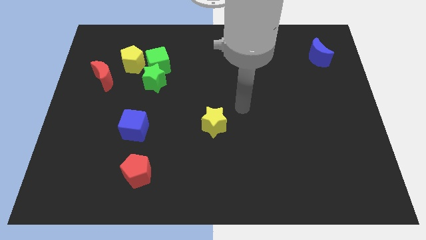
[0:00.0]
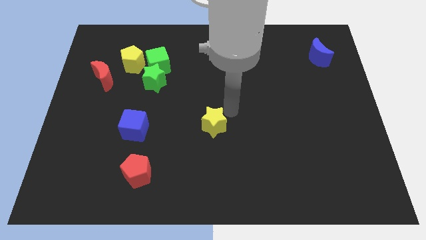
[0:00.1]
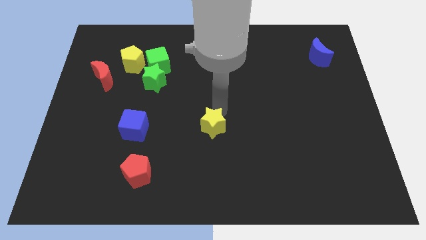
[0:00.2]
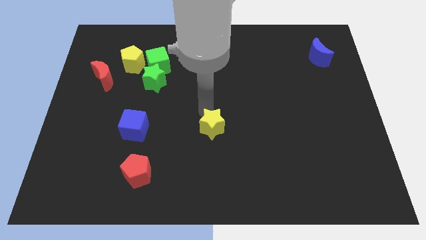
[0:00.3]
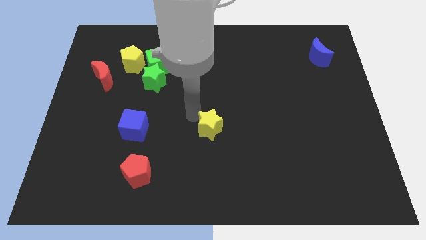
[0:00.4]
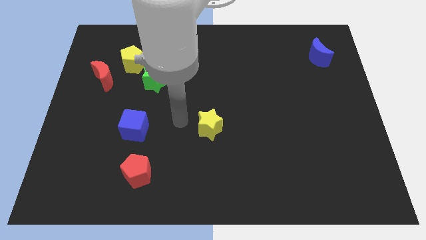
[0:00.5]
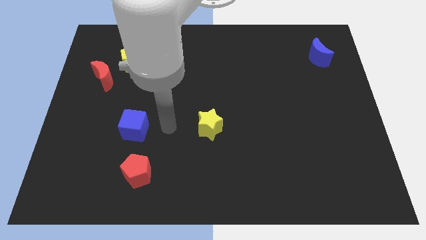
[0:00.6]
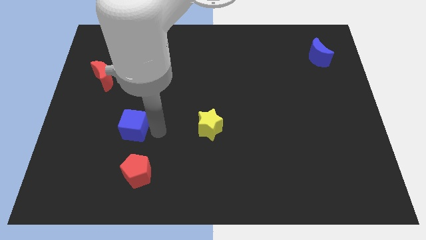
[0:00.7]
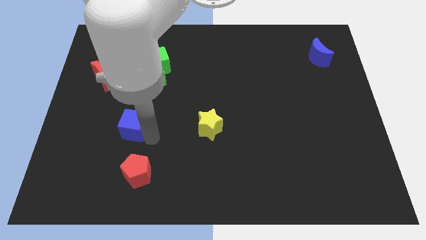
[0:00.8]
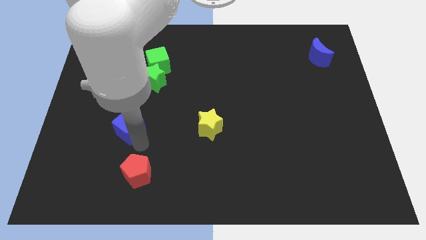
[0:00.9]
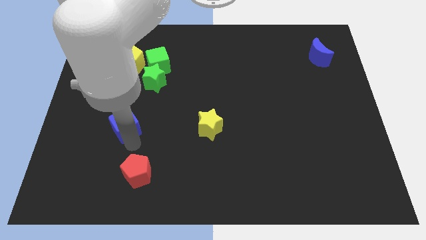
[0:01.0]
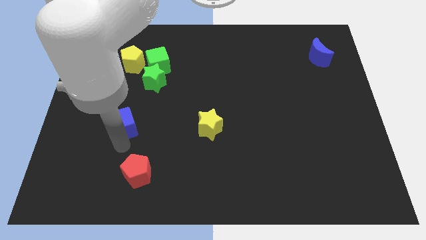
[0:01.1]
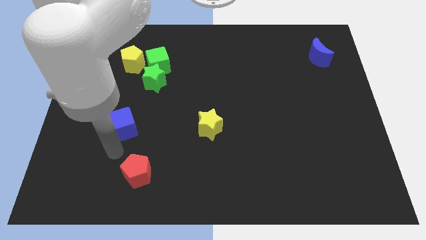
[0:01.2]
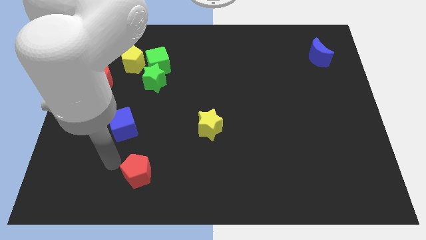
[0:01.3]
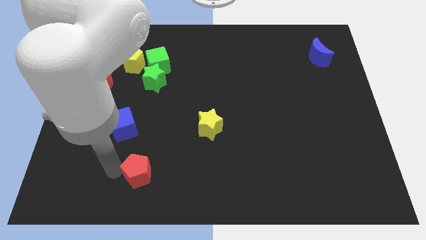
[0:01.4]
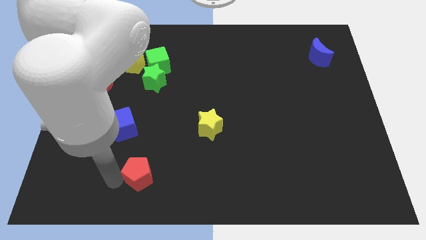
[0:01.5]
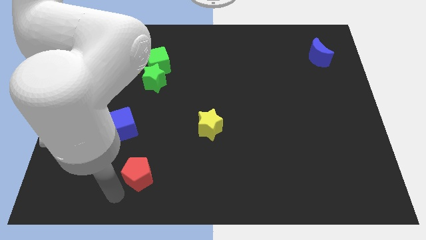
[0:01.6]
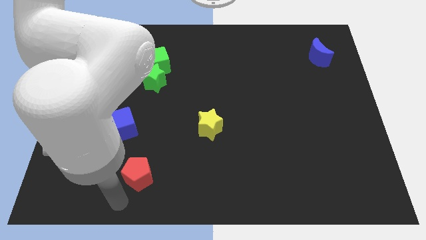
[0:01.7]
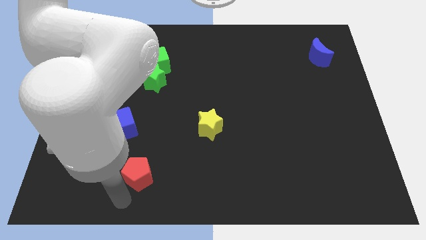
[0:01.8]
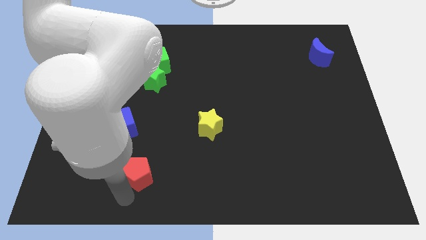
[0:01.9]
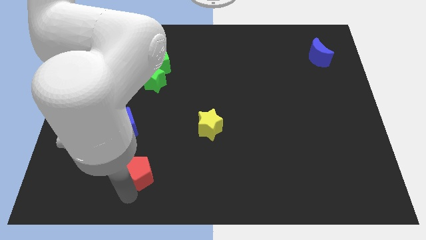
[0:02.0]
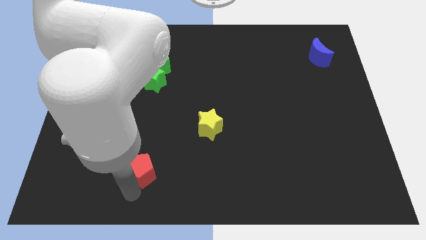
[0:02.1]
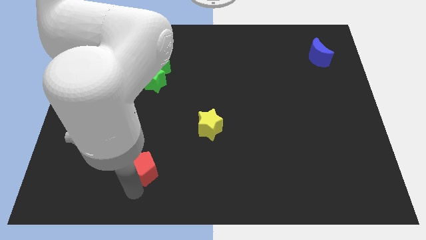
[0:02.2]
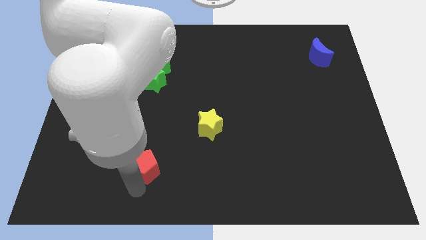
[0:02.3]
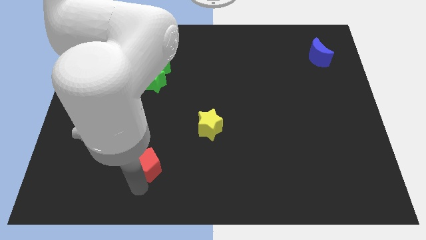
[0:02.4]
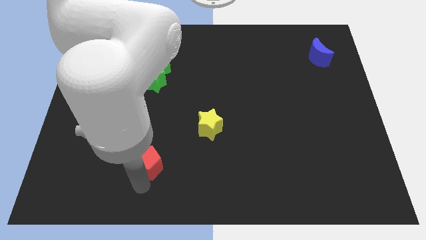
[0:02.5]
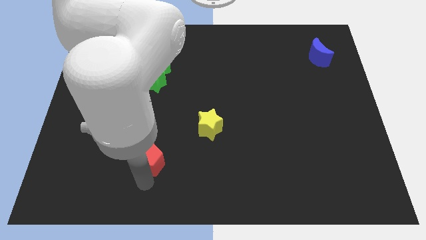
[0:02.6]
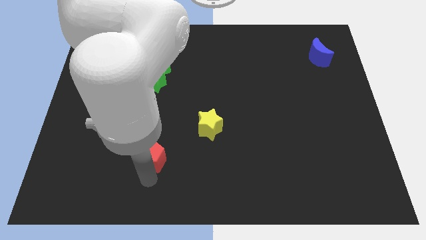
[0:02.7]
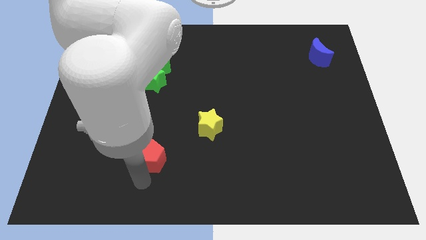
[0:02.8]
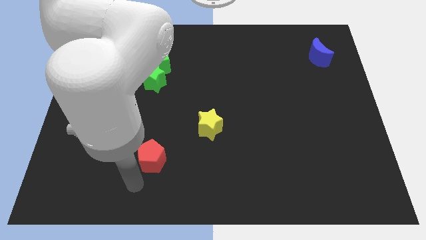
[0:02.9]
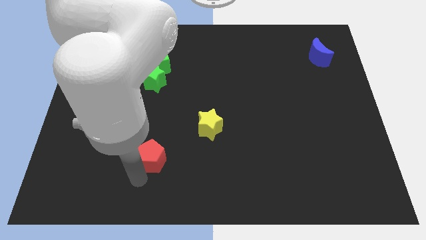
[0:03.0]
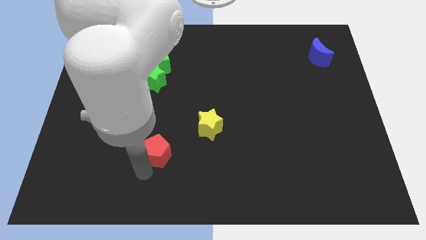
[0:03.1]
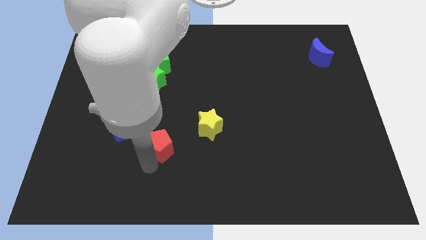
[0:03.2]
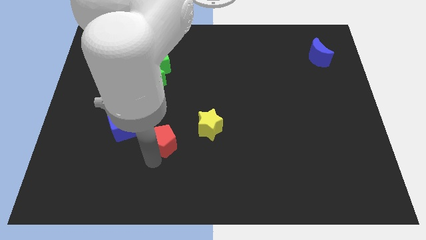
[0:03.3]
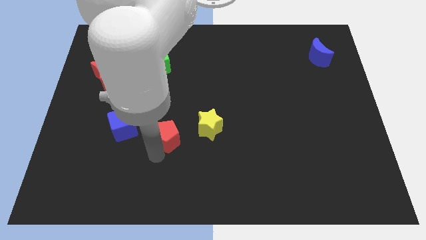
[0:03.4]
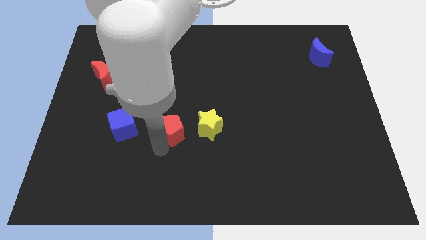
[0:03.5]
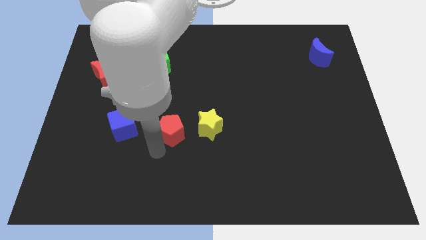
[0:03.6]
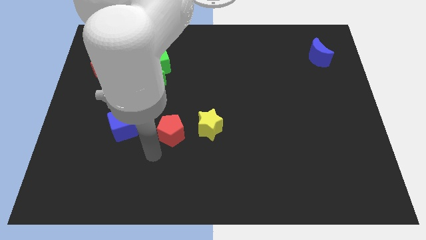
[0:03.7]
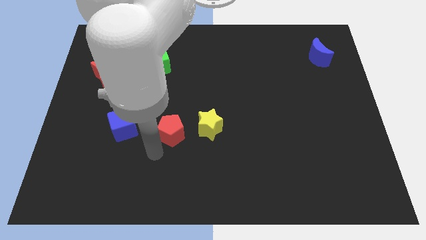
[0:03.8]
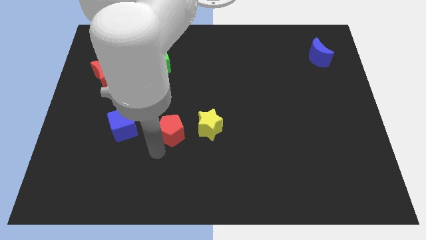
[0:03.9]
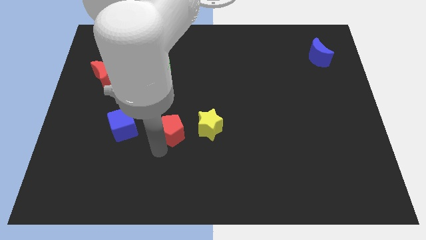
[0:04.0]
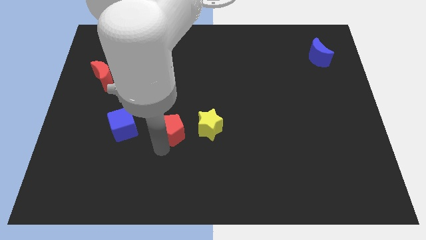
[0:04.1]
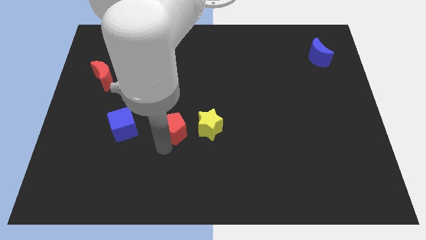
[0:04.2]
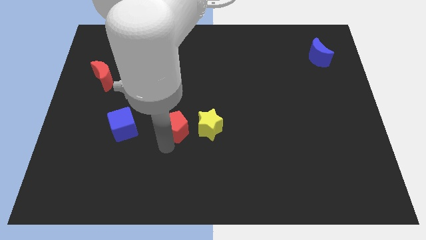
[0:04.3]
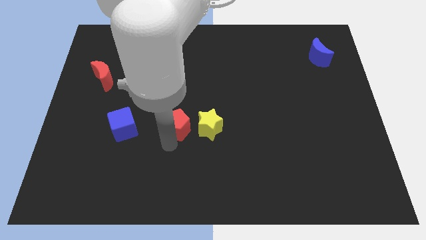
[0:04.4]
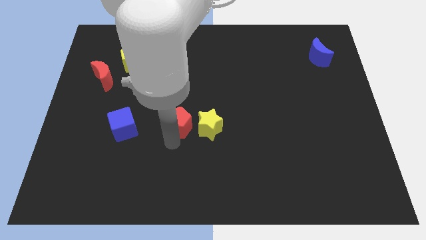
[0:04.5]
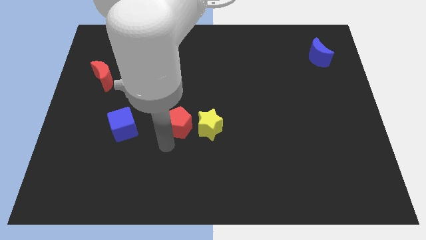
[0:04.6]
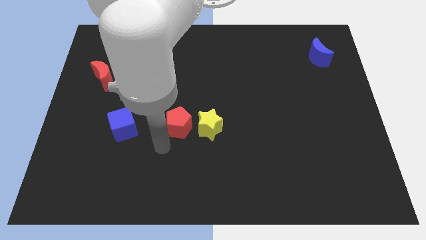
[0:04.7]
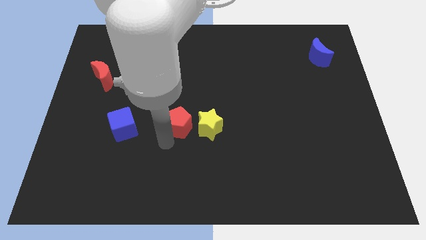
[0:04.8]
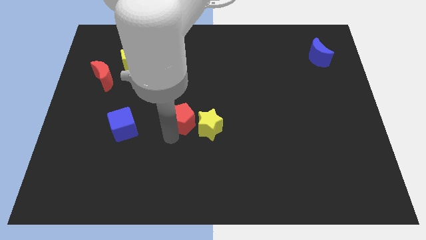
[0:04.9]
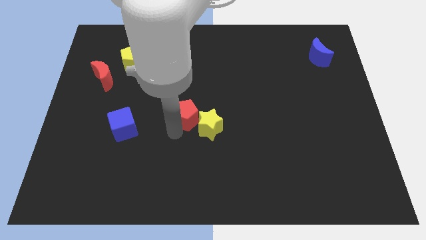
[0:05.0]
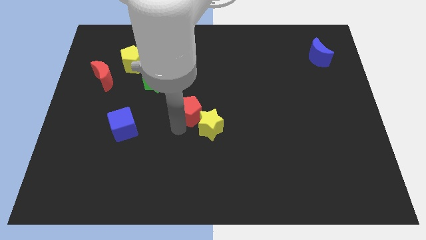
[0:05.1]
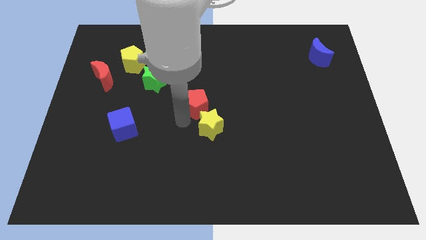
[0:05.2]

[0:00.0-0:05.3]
push the red pentagon upwards and to the right

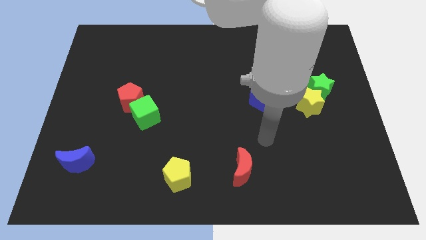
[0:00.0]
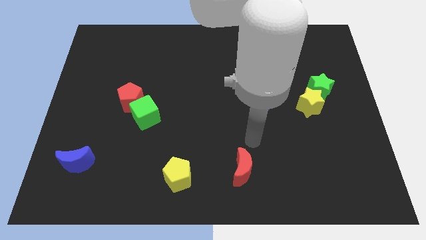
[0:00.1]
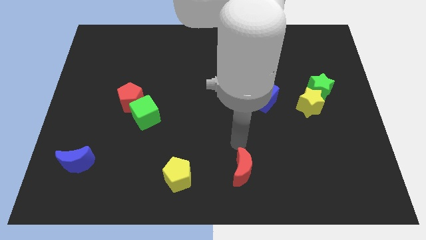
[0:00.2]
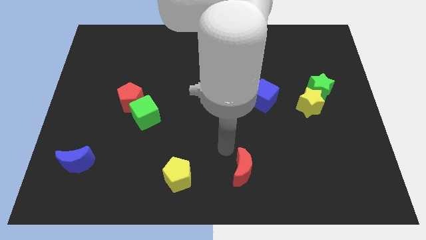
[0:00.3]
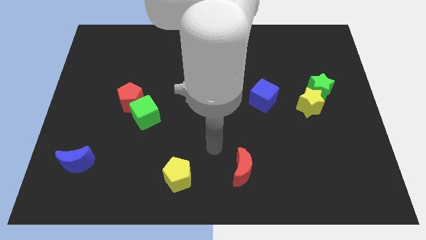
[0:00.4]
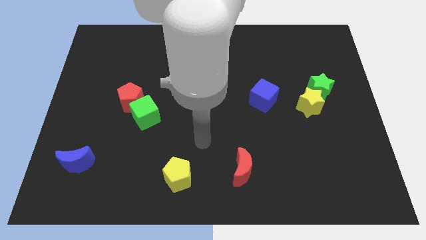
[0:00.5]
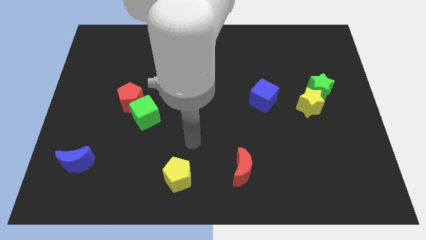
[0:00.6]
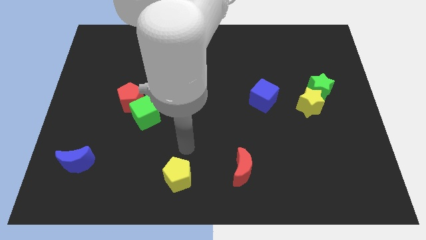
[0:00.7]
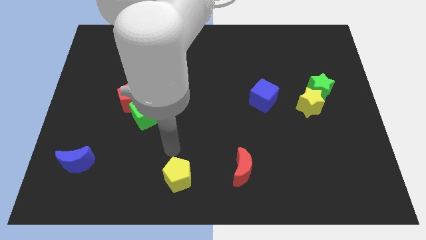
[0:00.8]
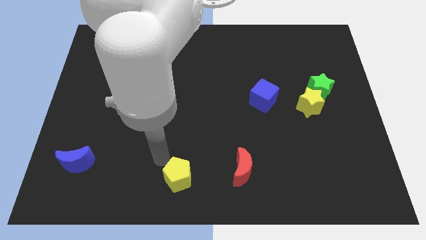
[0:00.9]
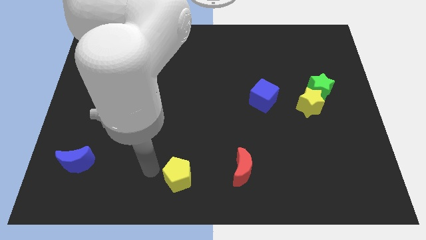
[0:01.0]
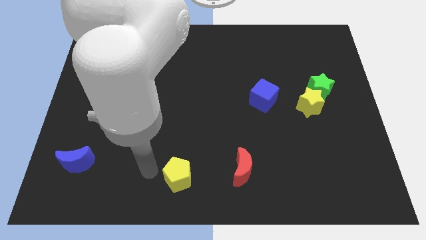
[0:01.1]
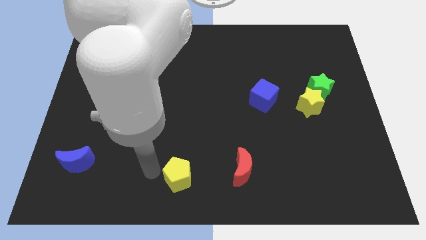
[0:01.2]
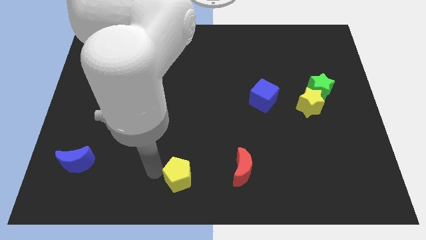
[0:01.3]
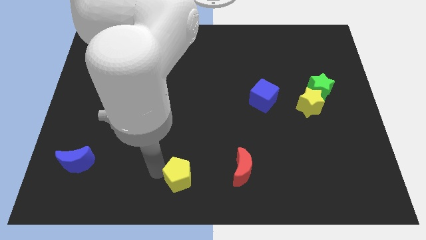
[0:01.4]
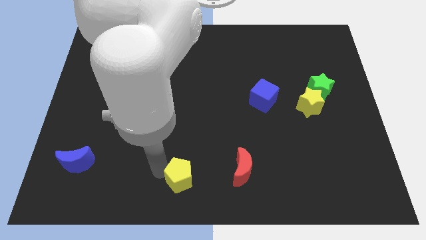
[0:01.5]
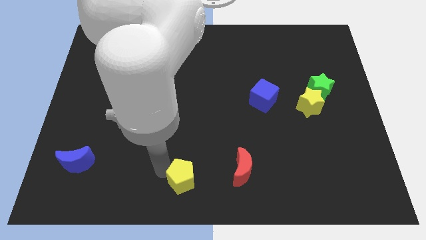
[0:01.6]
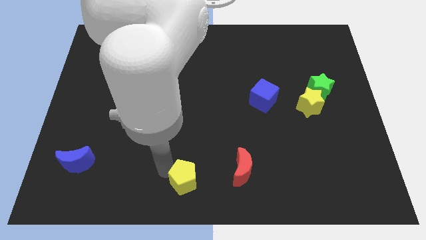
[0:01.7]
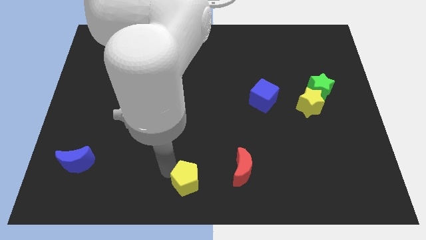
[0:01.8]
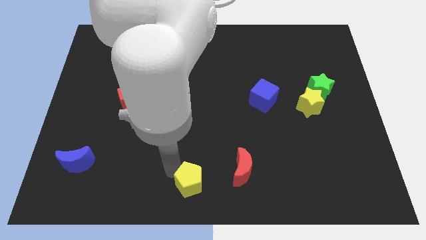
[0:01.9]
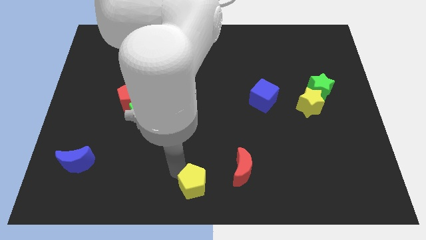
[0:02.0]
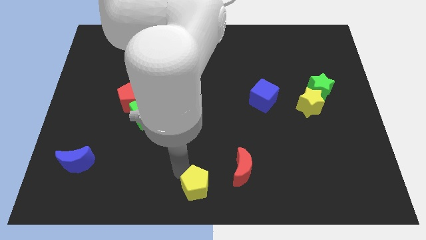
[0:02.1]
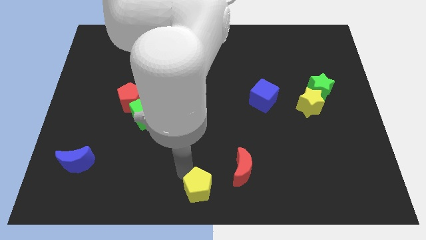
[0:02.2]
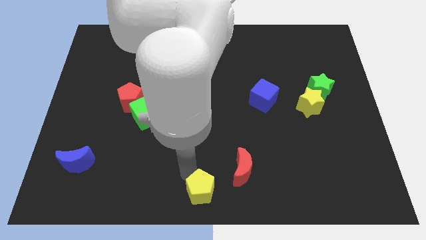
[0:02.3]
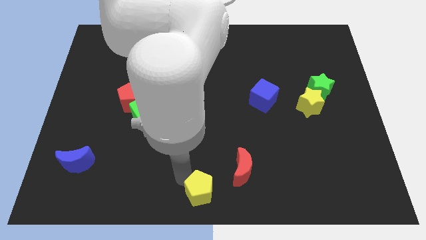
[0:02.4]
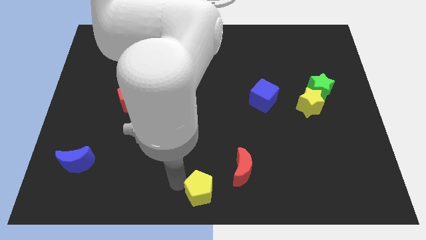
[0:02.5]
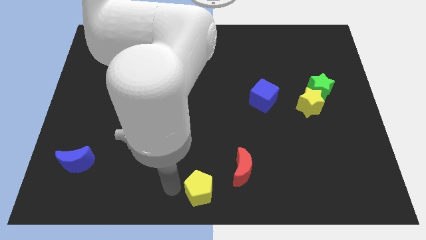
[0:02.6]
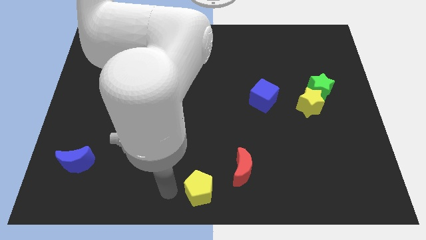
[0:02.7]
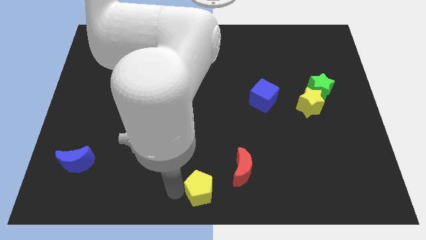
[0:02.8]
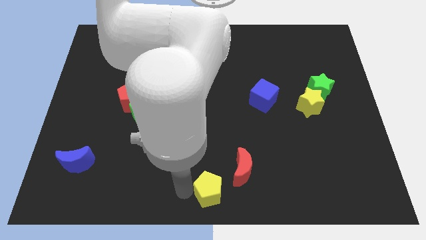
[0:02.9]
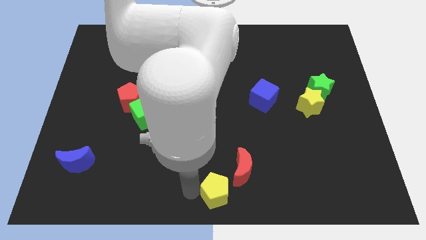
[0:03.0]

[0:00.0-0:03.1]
slightly push the yellow pentagon right
